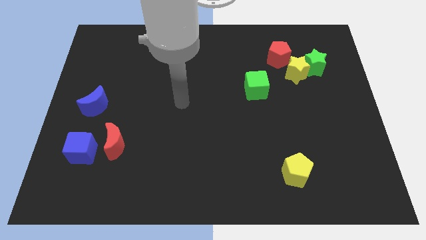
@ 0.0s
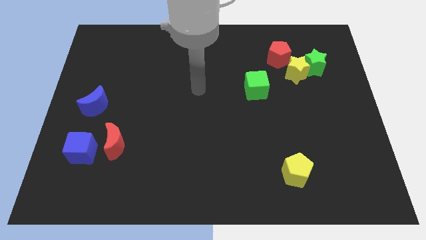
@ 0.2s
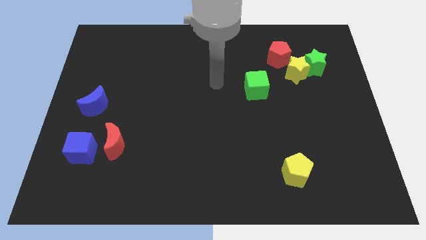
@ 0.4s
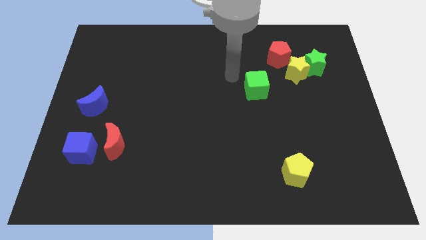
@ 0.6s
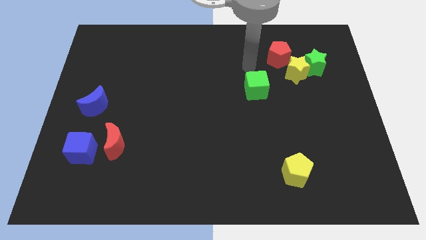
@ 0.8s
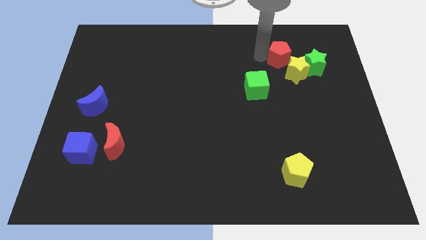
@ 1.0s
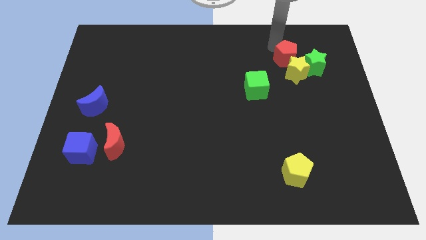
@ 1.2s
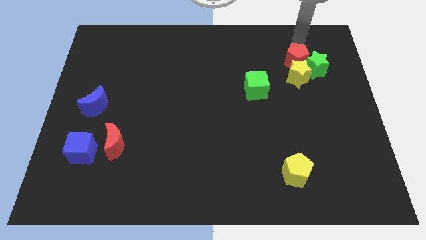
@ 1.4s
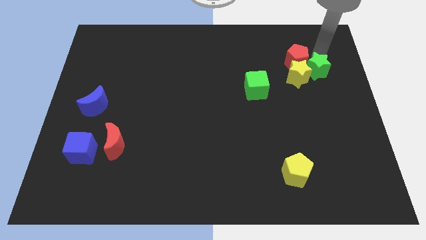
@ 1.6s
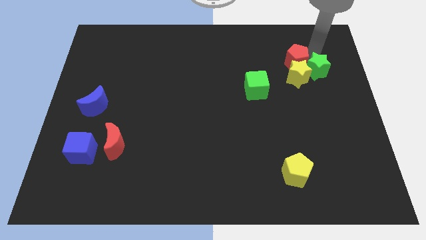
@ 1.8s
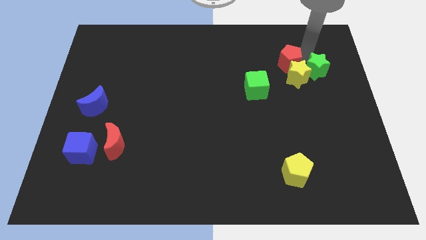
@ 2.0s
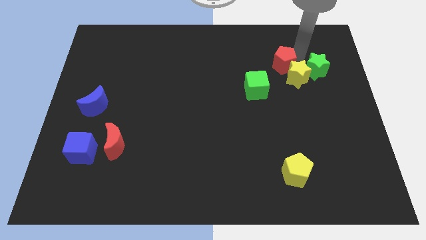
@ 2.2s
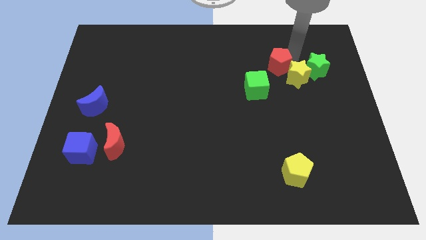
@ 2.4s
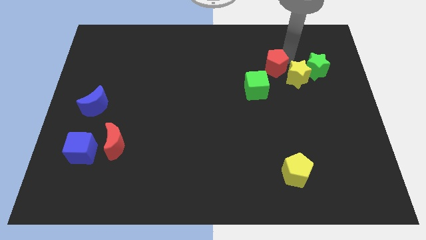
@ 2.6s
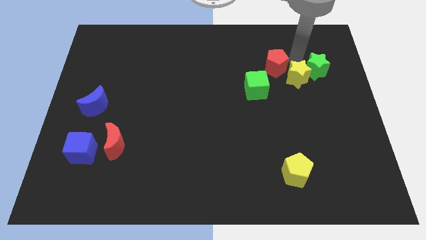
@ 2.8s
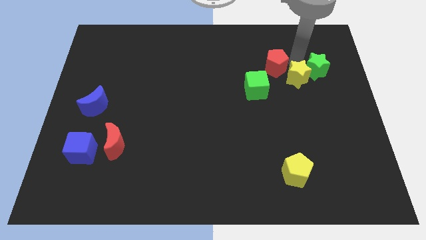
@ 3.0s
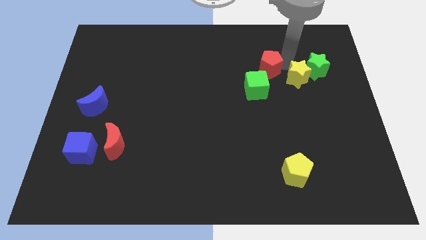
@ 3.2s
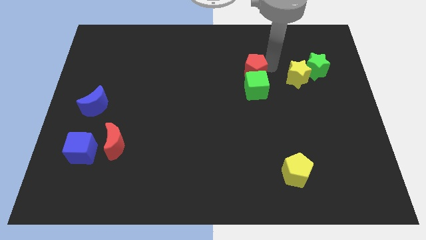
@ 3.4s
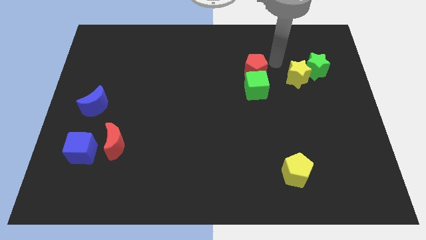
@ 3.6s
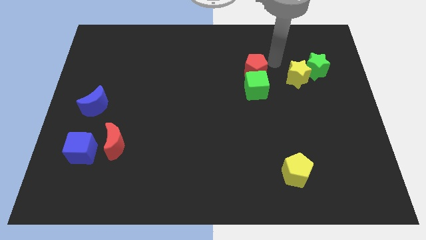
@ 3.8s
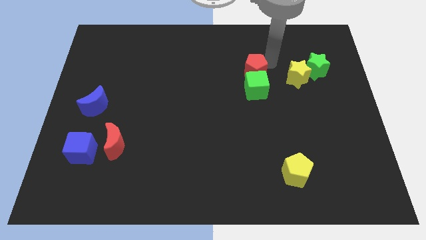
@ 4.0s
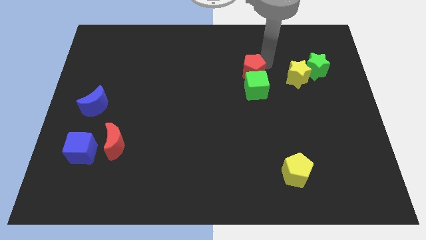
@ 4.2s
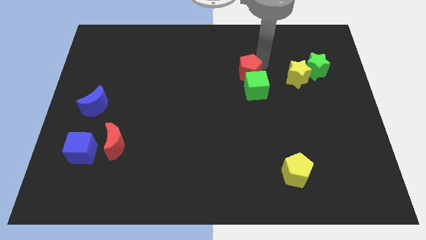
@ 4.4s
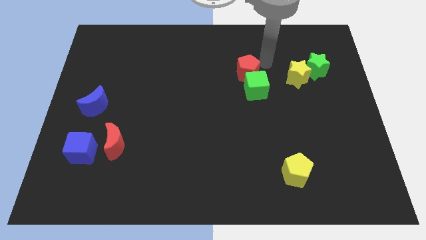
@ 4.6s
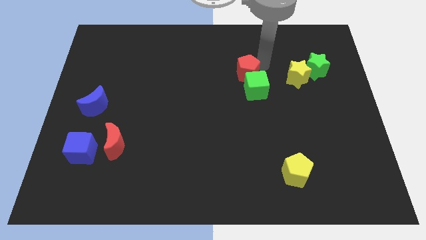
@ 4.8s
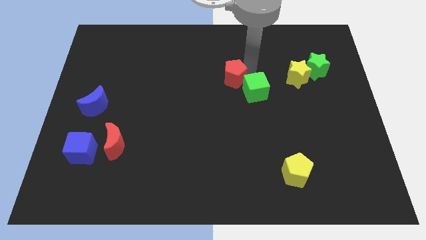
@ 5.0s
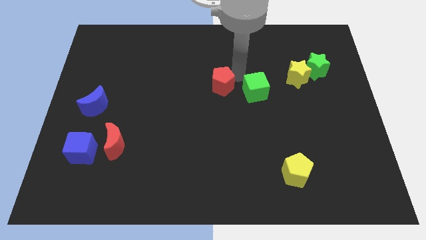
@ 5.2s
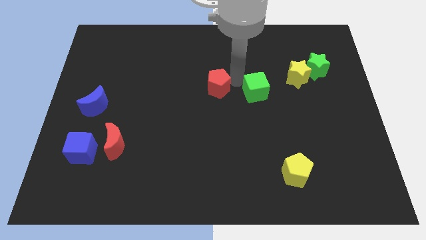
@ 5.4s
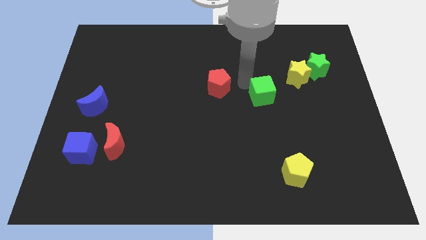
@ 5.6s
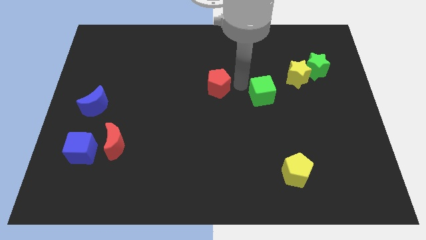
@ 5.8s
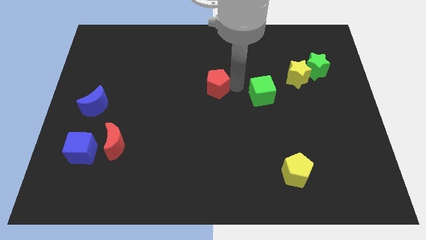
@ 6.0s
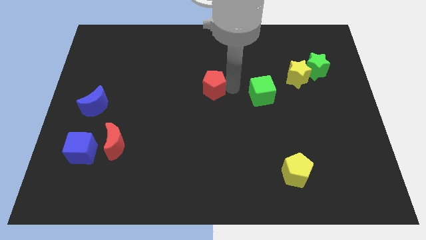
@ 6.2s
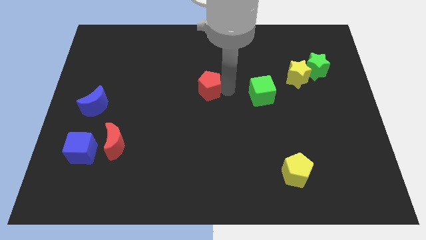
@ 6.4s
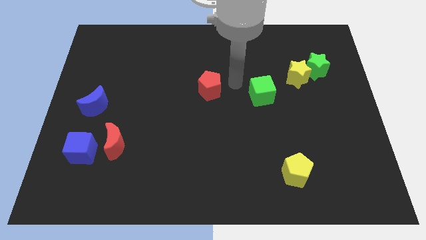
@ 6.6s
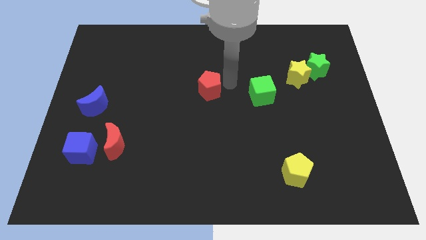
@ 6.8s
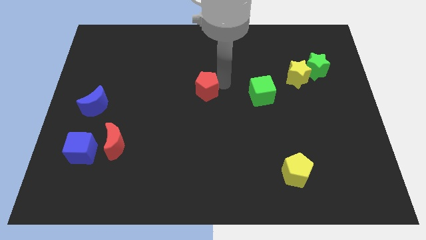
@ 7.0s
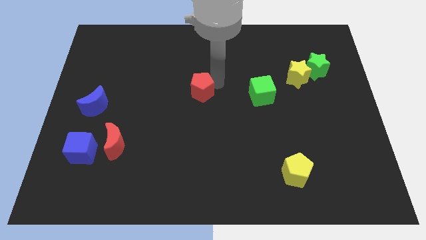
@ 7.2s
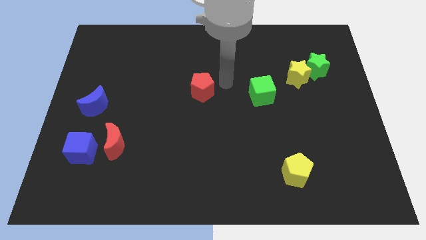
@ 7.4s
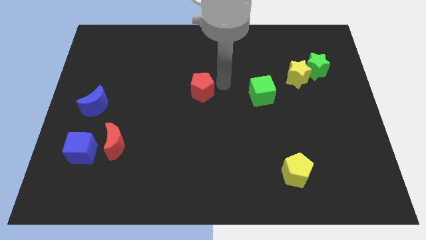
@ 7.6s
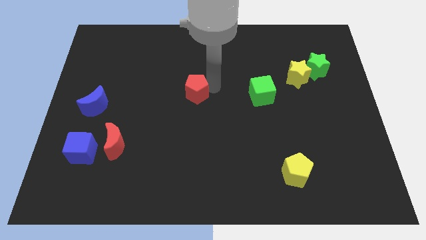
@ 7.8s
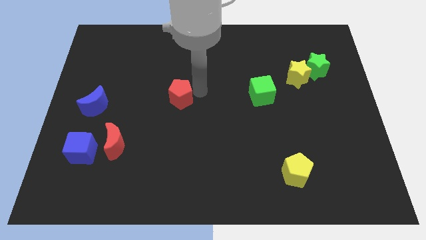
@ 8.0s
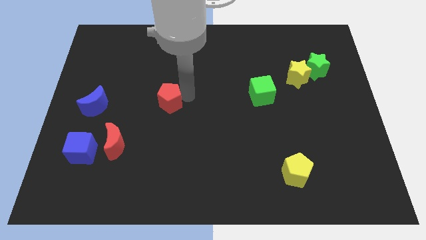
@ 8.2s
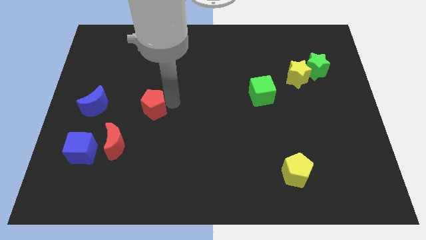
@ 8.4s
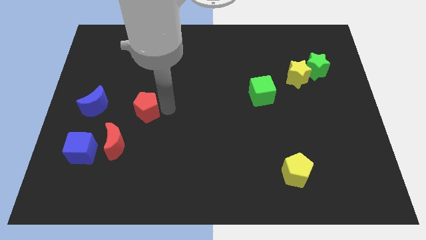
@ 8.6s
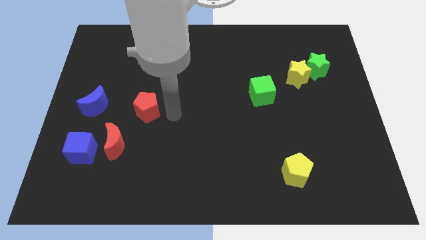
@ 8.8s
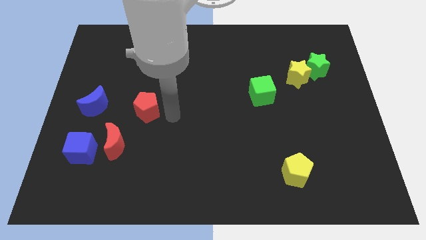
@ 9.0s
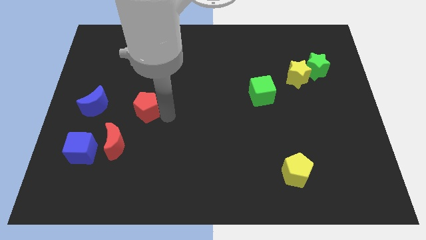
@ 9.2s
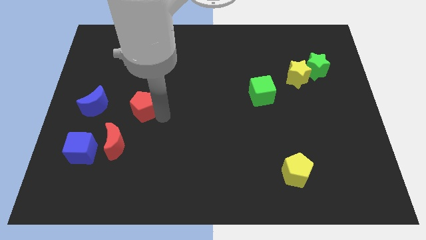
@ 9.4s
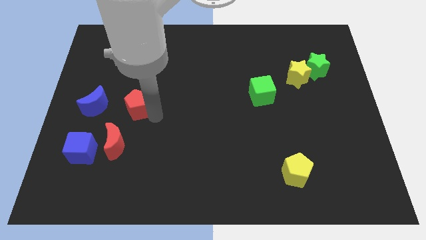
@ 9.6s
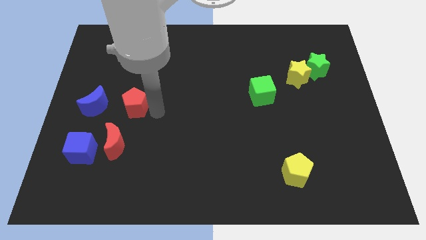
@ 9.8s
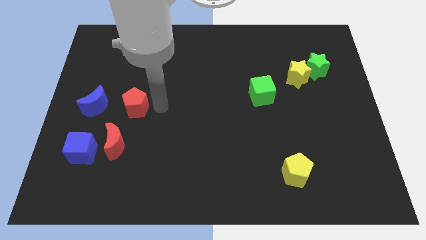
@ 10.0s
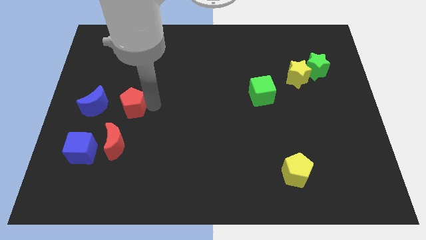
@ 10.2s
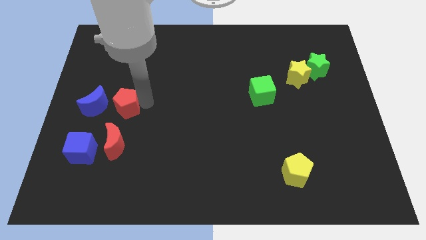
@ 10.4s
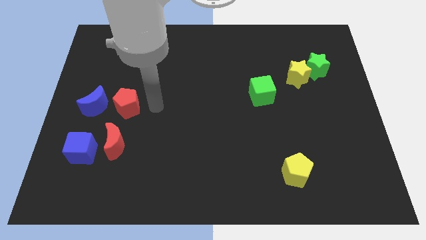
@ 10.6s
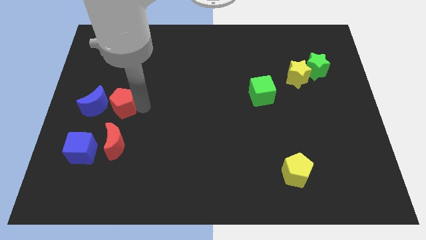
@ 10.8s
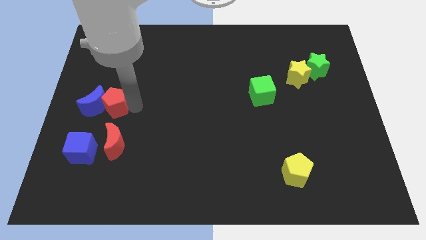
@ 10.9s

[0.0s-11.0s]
move the red pentagon towards the blue moon

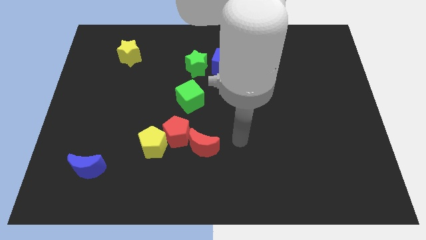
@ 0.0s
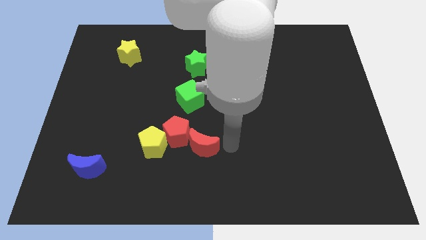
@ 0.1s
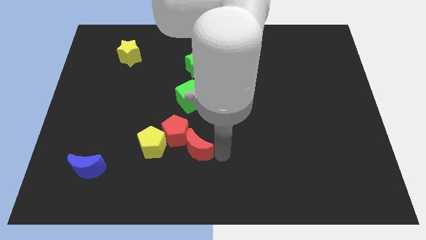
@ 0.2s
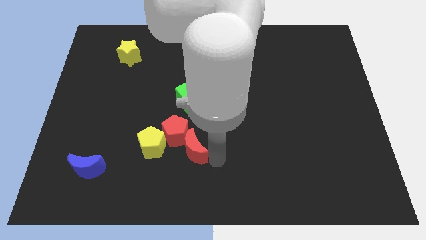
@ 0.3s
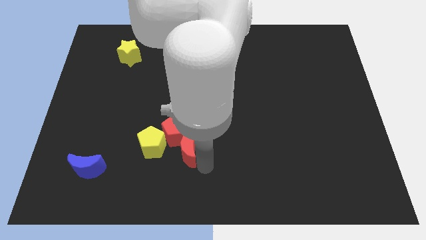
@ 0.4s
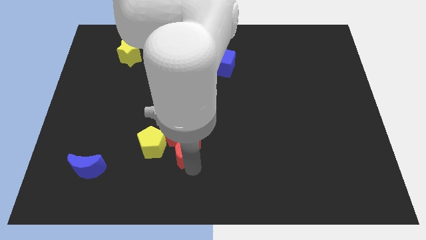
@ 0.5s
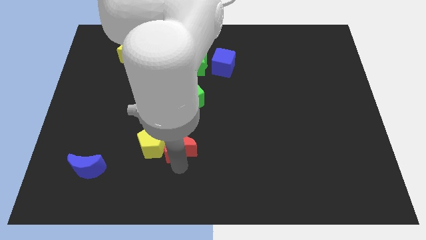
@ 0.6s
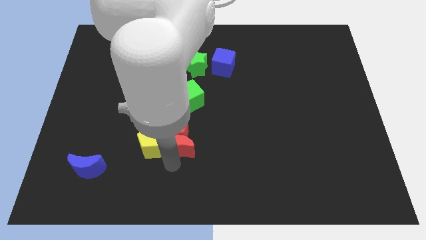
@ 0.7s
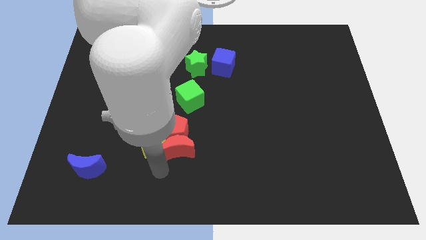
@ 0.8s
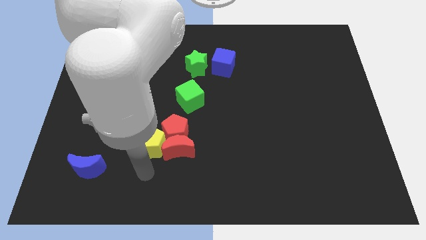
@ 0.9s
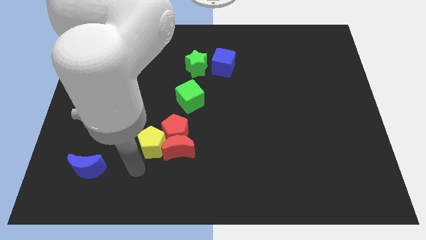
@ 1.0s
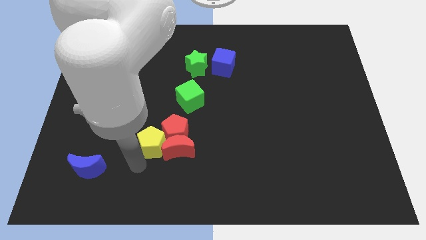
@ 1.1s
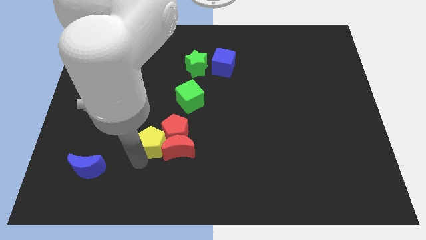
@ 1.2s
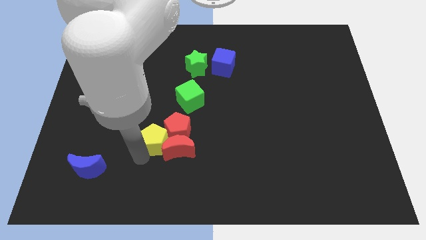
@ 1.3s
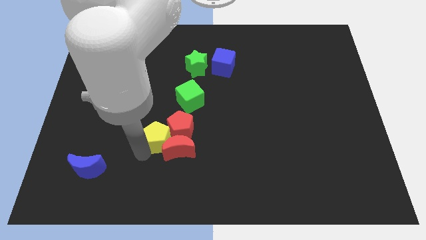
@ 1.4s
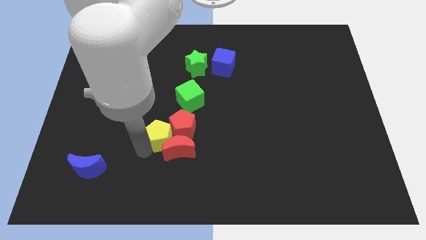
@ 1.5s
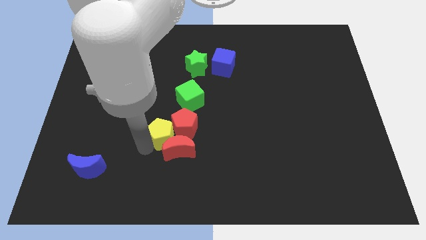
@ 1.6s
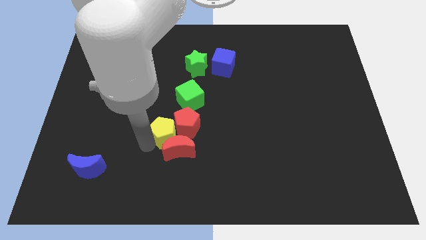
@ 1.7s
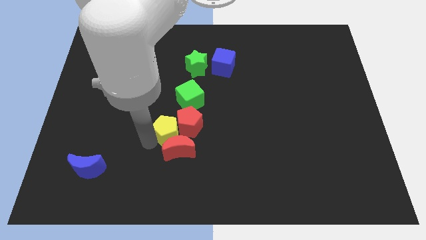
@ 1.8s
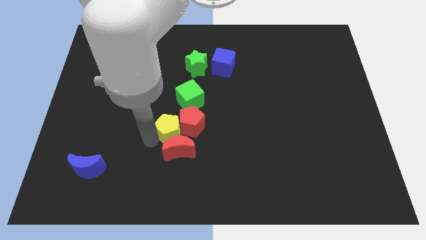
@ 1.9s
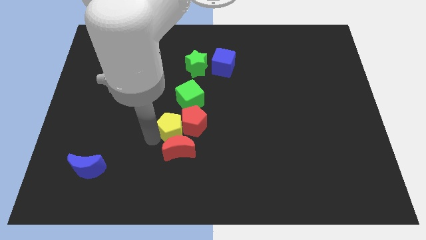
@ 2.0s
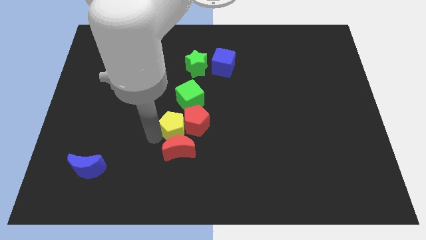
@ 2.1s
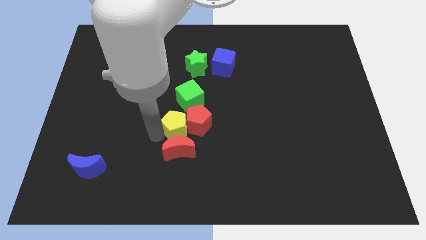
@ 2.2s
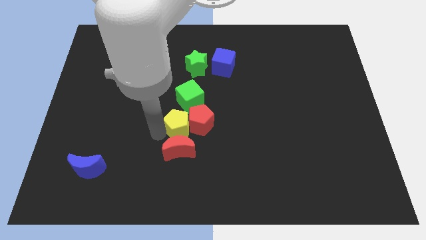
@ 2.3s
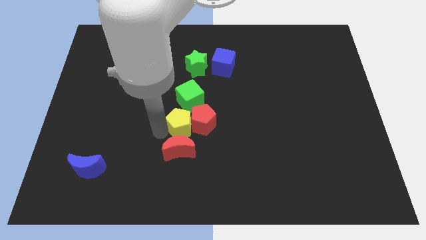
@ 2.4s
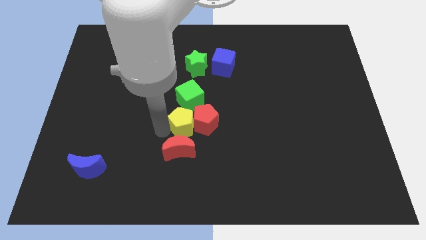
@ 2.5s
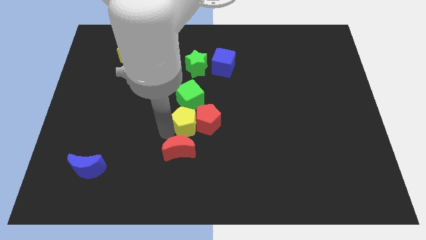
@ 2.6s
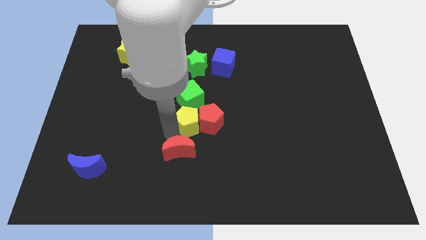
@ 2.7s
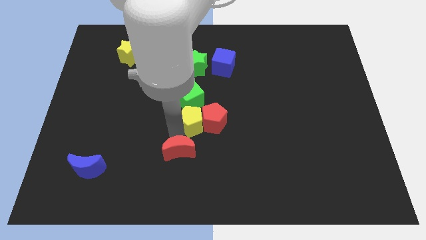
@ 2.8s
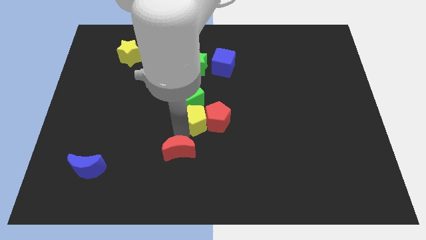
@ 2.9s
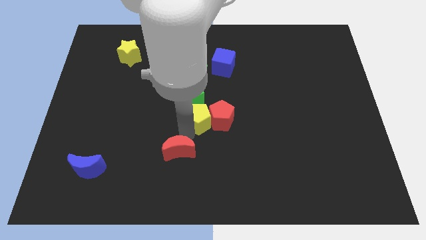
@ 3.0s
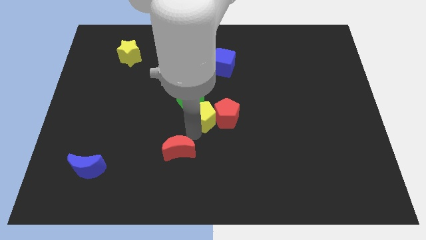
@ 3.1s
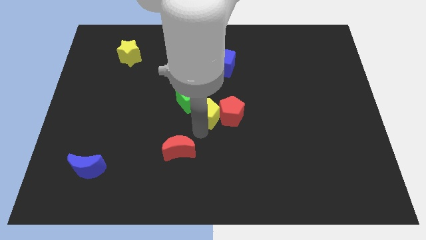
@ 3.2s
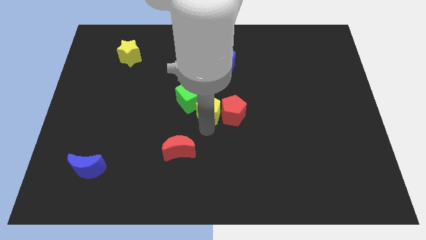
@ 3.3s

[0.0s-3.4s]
push the yellow pentagon close to the green cube
